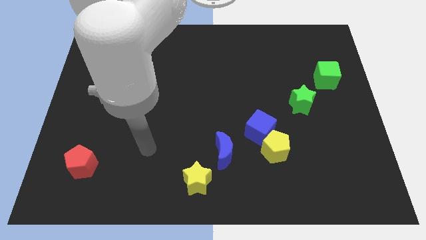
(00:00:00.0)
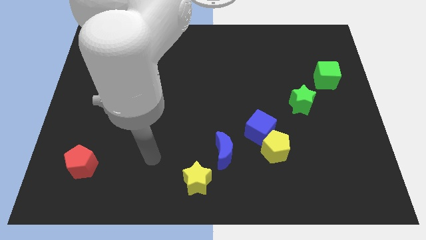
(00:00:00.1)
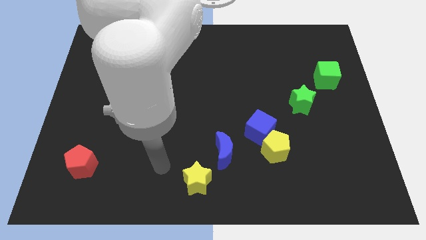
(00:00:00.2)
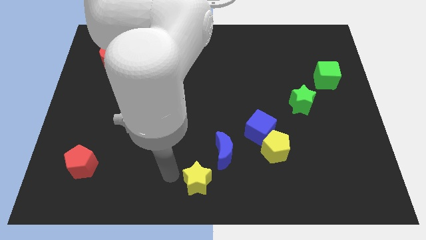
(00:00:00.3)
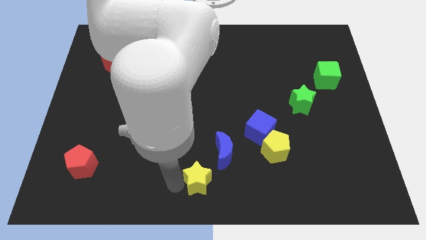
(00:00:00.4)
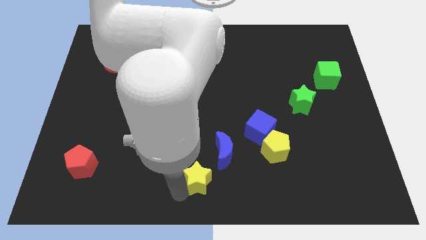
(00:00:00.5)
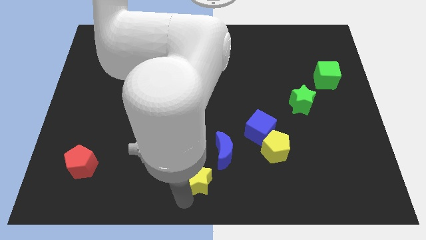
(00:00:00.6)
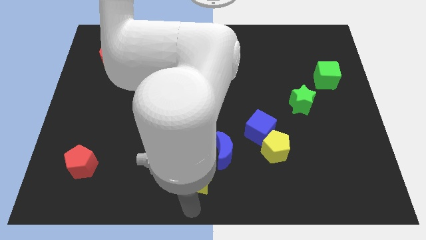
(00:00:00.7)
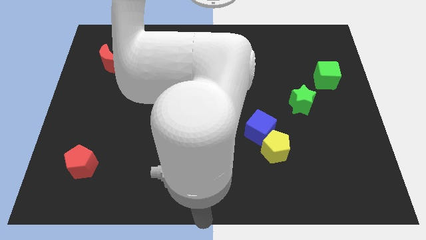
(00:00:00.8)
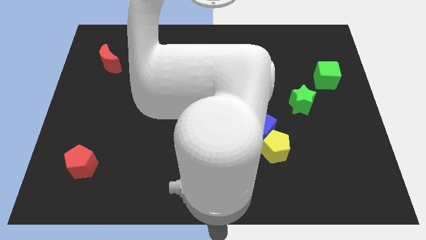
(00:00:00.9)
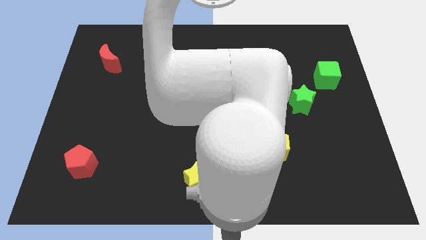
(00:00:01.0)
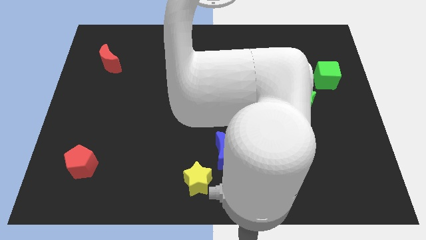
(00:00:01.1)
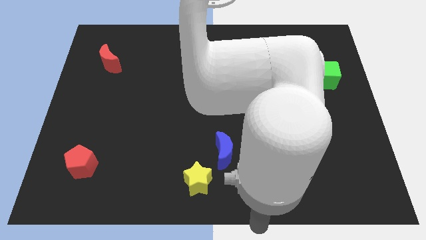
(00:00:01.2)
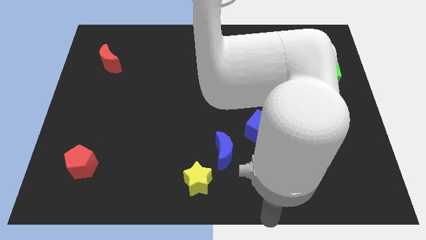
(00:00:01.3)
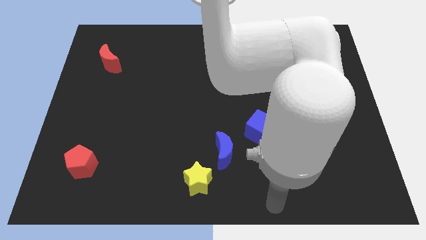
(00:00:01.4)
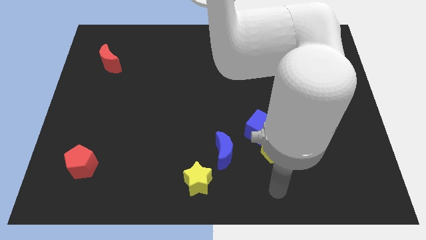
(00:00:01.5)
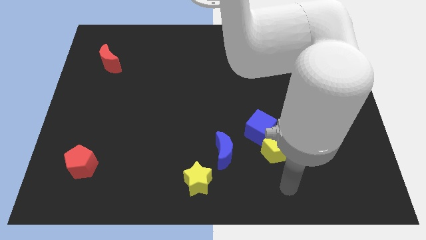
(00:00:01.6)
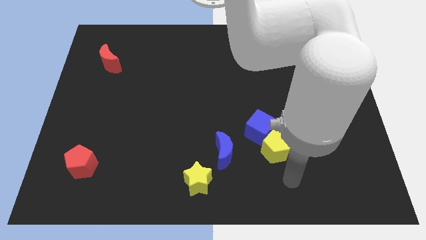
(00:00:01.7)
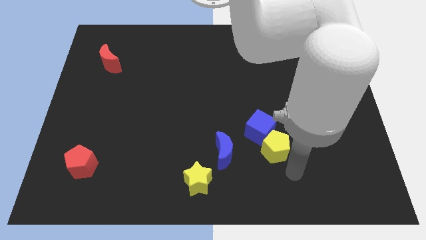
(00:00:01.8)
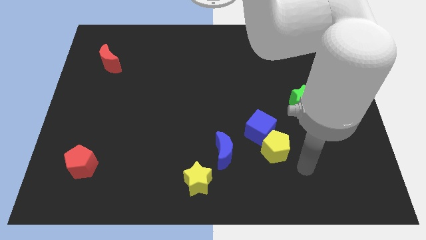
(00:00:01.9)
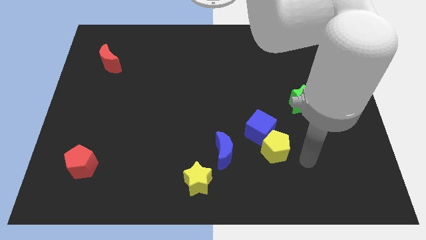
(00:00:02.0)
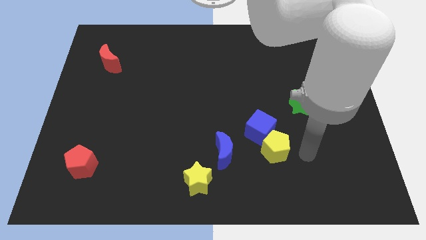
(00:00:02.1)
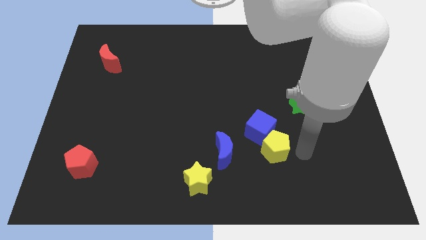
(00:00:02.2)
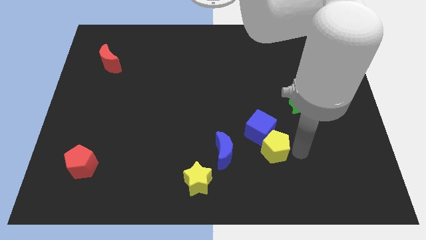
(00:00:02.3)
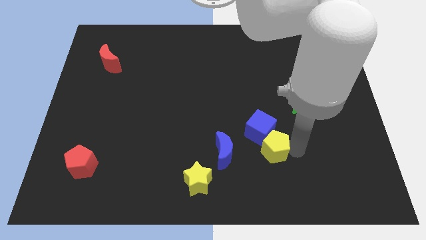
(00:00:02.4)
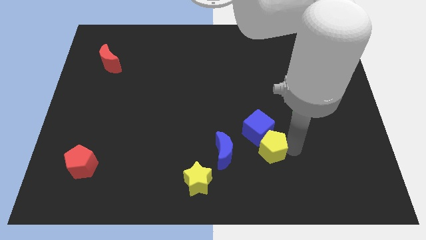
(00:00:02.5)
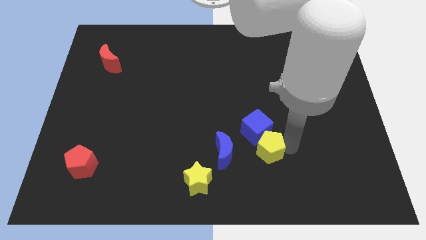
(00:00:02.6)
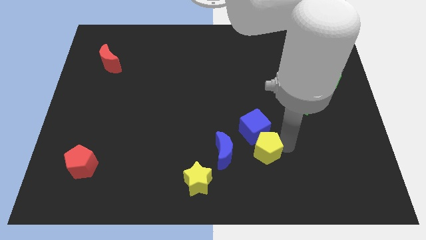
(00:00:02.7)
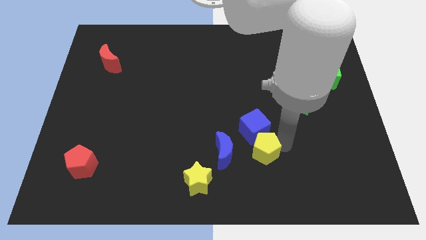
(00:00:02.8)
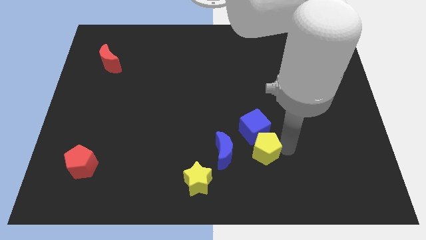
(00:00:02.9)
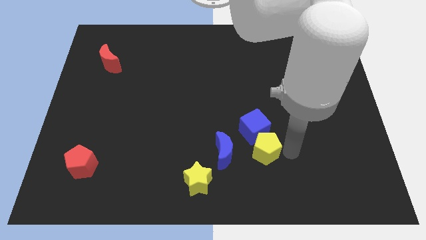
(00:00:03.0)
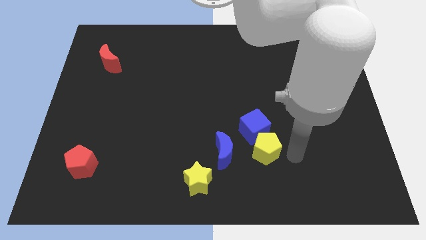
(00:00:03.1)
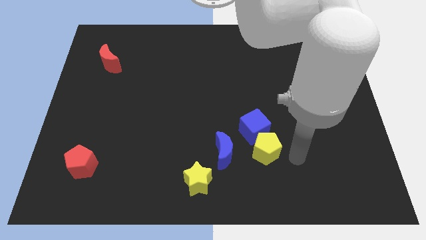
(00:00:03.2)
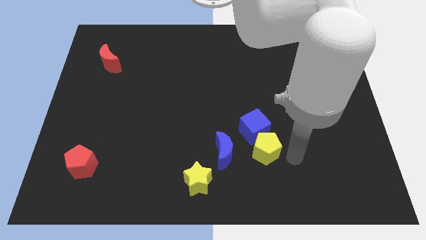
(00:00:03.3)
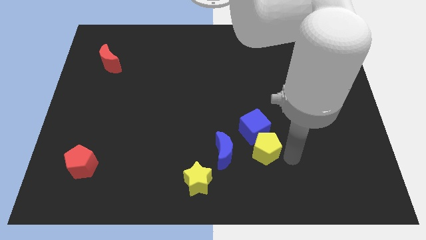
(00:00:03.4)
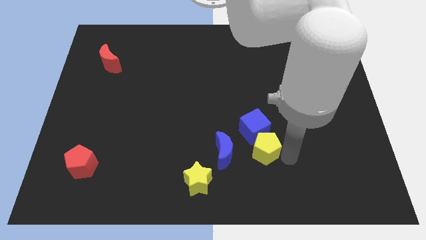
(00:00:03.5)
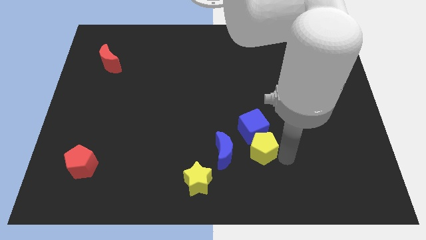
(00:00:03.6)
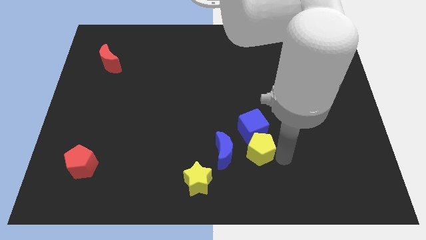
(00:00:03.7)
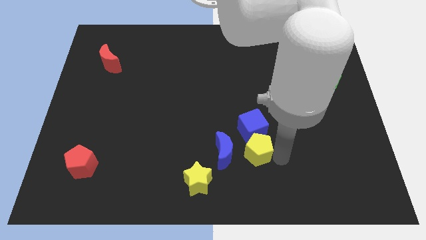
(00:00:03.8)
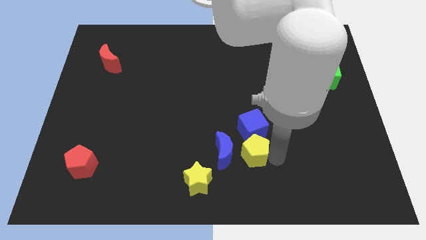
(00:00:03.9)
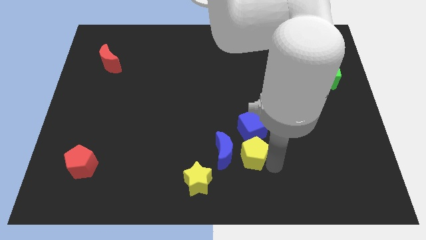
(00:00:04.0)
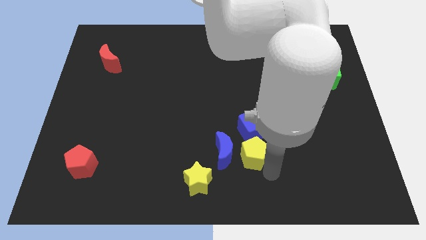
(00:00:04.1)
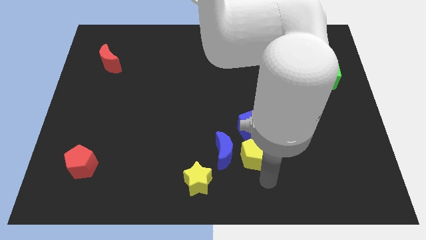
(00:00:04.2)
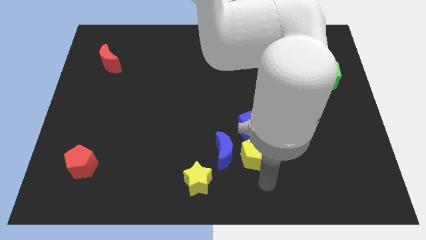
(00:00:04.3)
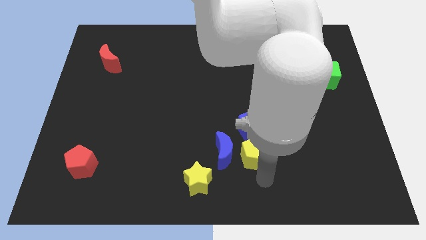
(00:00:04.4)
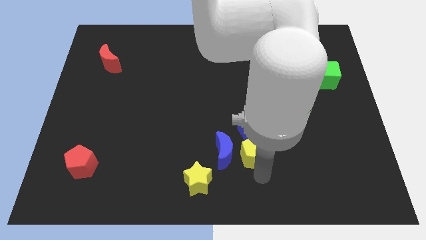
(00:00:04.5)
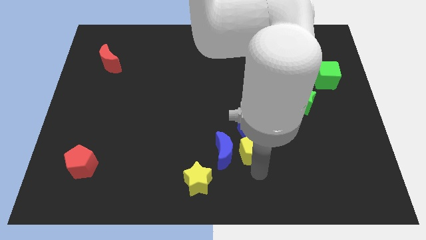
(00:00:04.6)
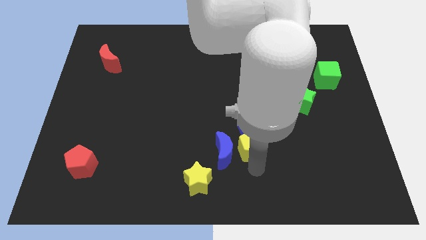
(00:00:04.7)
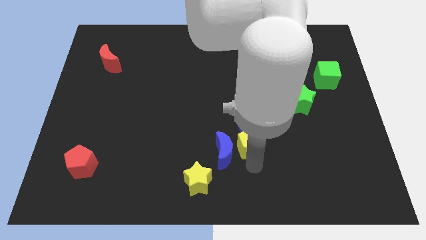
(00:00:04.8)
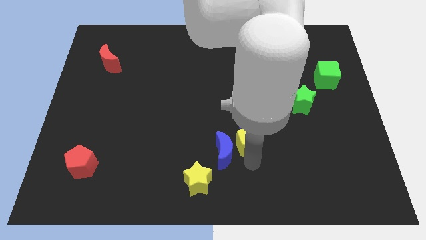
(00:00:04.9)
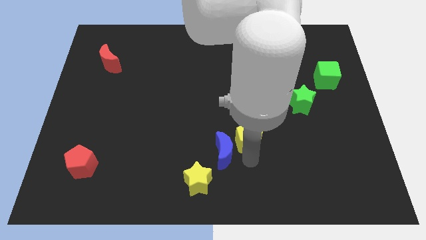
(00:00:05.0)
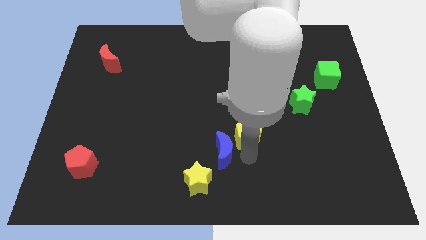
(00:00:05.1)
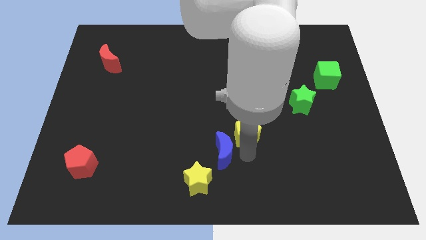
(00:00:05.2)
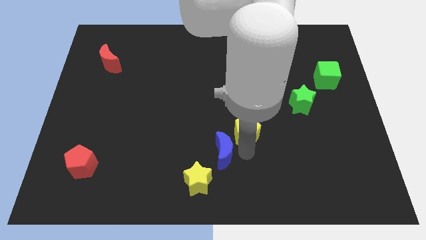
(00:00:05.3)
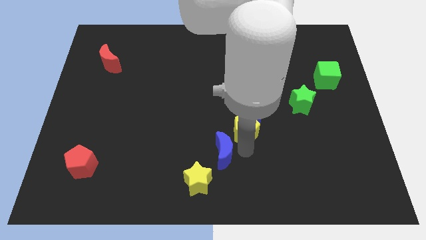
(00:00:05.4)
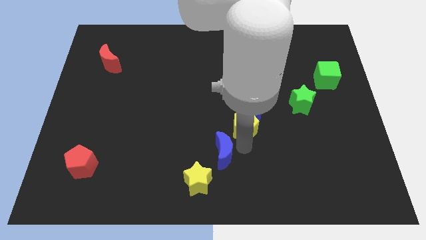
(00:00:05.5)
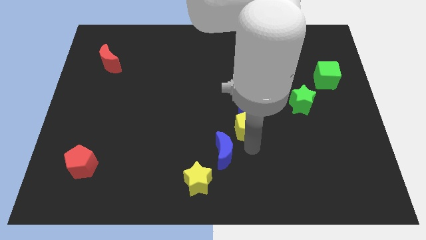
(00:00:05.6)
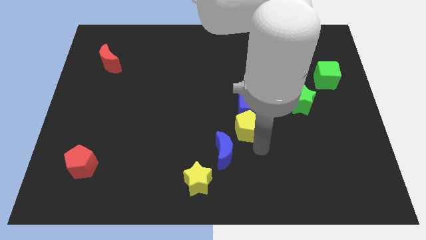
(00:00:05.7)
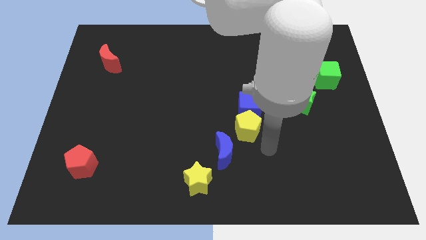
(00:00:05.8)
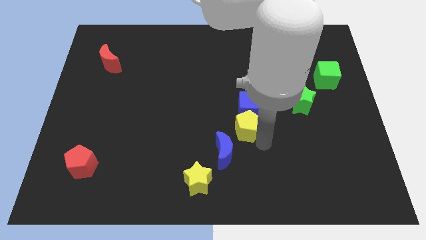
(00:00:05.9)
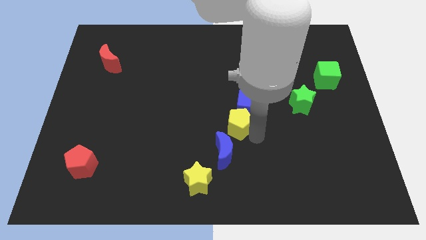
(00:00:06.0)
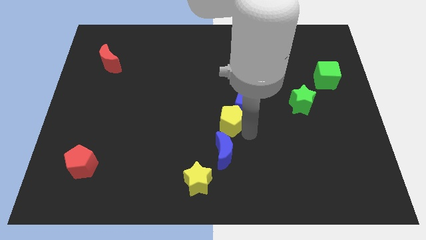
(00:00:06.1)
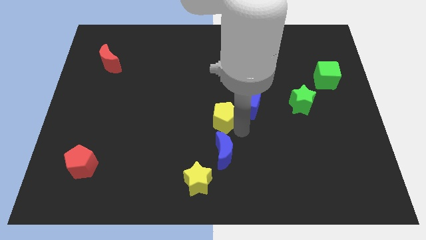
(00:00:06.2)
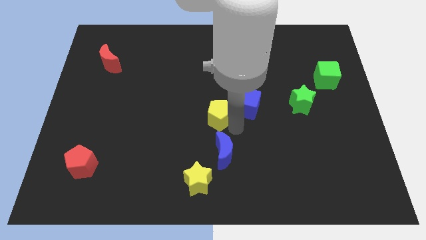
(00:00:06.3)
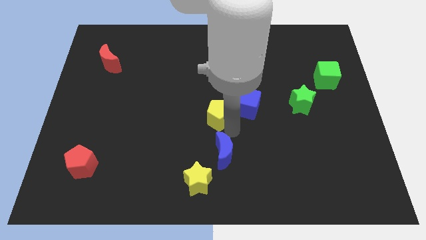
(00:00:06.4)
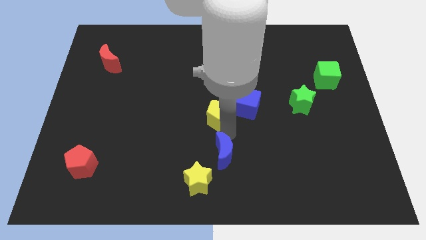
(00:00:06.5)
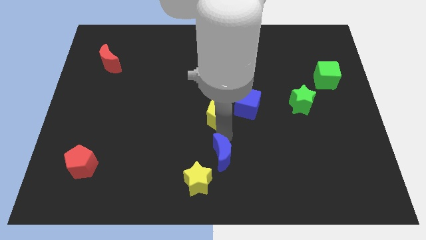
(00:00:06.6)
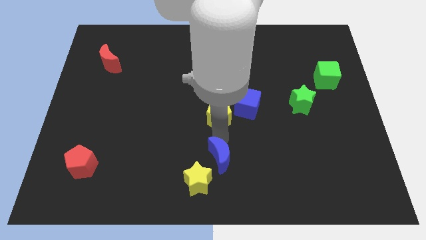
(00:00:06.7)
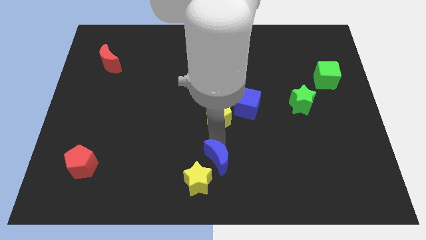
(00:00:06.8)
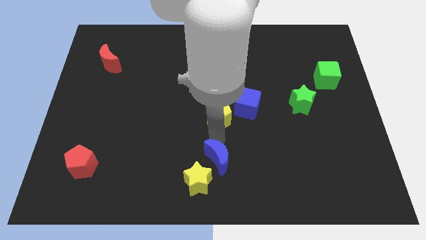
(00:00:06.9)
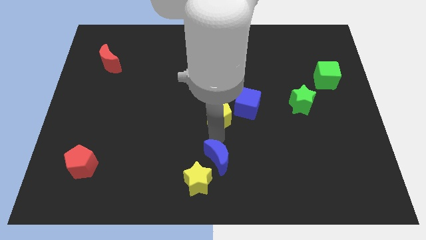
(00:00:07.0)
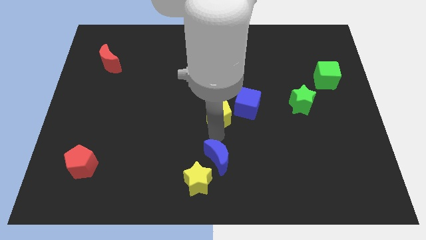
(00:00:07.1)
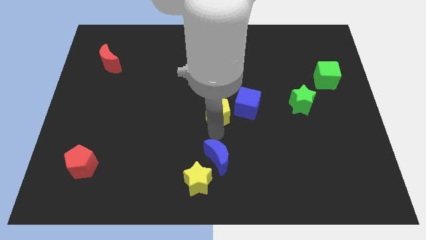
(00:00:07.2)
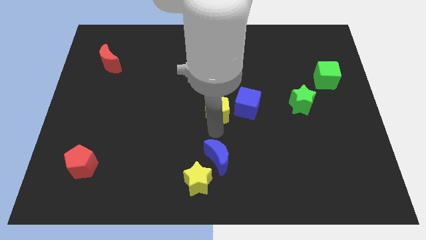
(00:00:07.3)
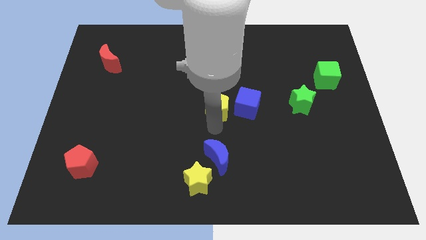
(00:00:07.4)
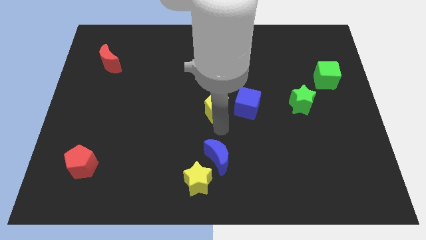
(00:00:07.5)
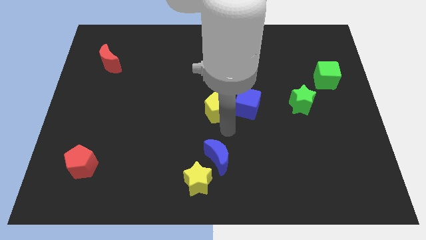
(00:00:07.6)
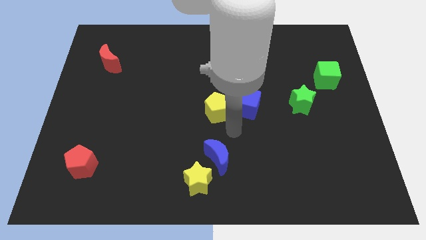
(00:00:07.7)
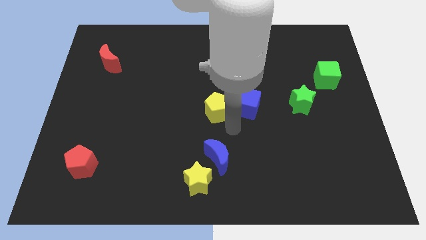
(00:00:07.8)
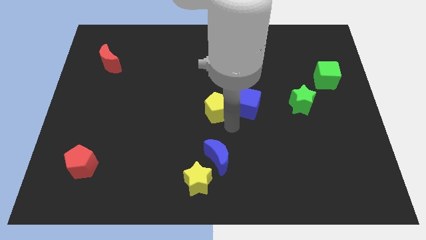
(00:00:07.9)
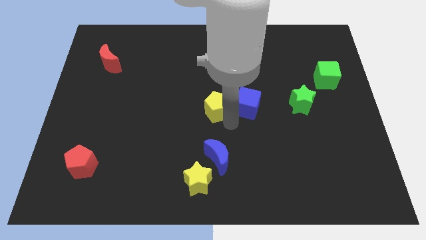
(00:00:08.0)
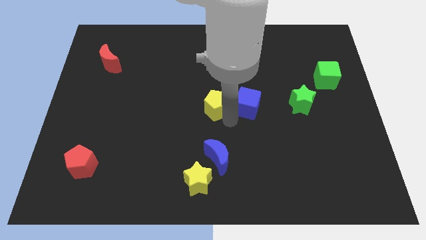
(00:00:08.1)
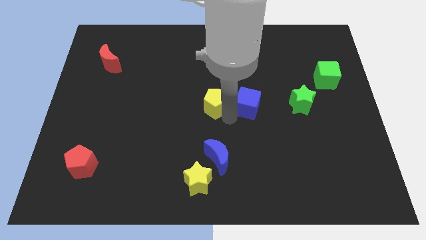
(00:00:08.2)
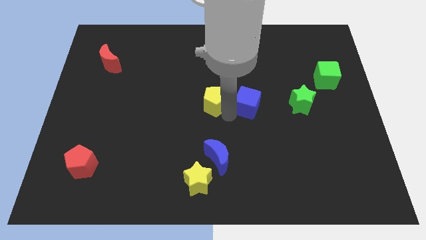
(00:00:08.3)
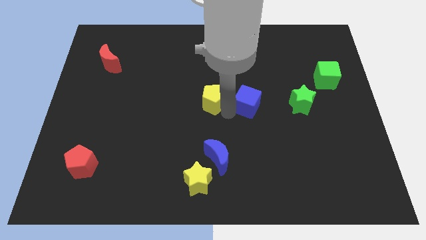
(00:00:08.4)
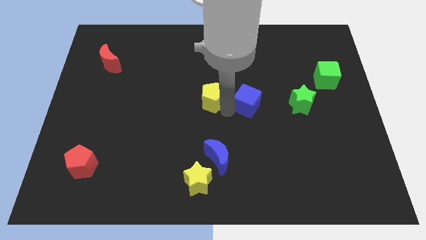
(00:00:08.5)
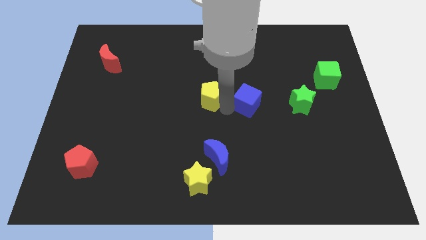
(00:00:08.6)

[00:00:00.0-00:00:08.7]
push the yellow pentagon upwards and left
